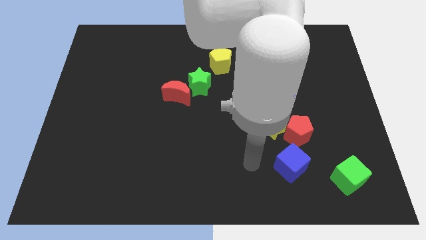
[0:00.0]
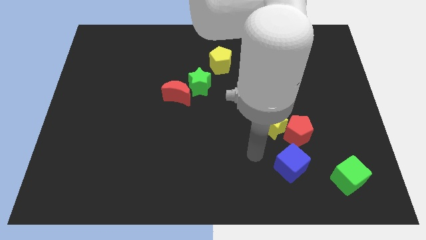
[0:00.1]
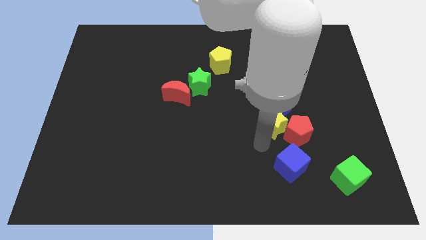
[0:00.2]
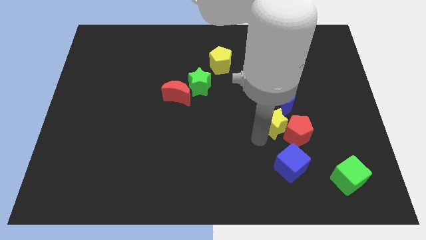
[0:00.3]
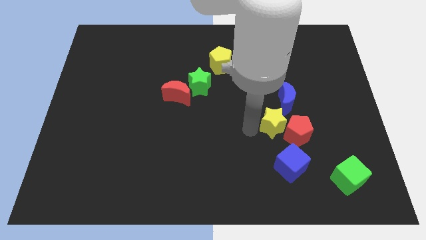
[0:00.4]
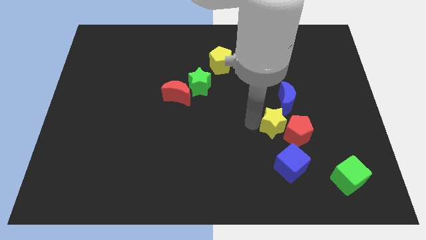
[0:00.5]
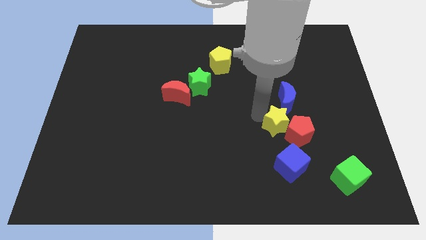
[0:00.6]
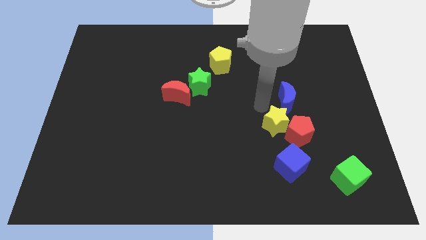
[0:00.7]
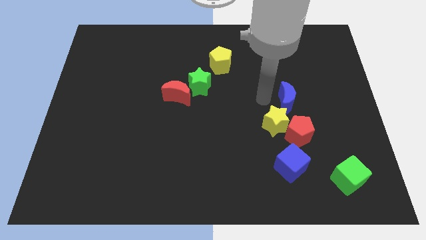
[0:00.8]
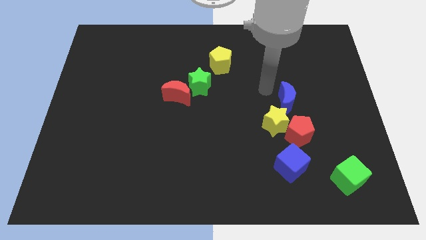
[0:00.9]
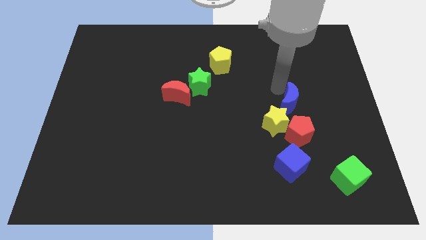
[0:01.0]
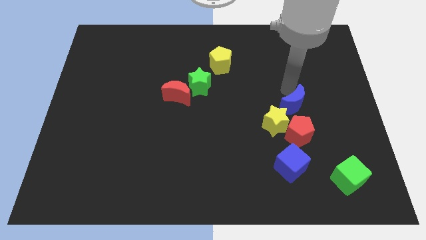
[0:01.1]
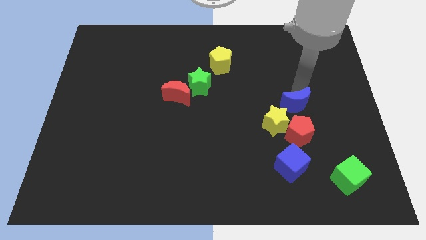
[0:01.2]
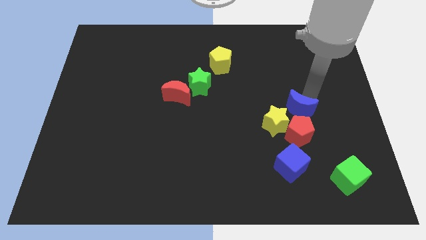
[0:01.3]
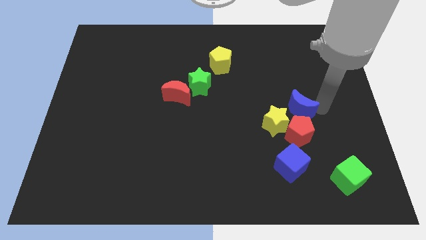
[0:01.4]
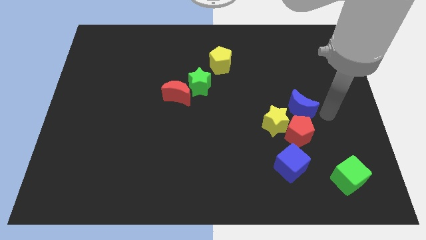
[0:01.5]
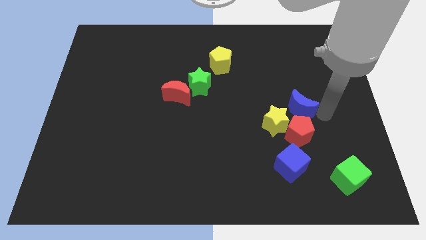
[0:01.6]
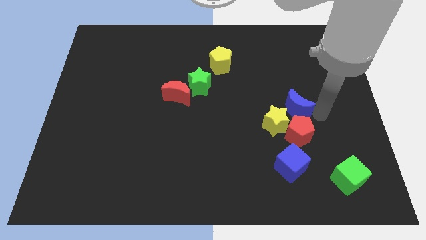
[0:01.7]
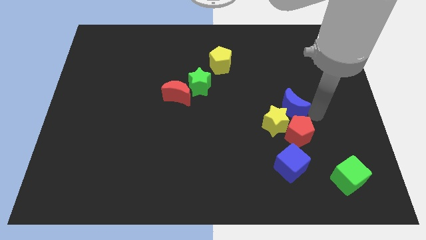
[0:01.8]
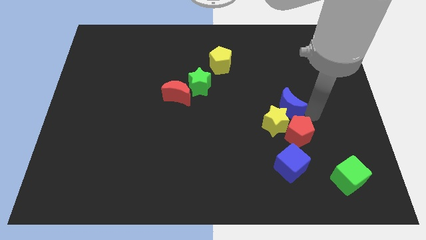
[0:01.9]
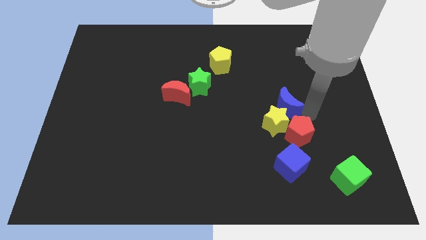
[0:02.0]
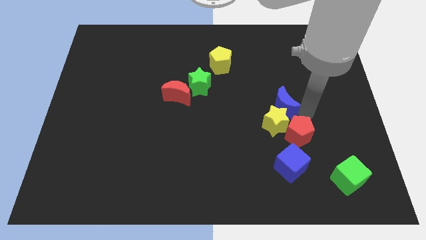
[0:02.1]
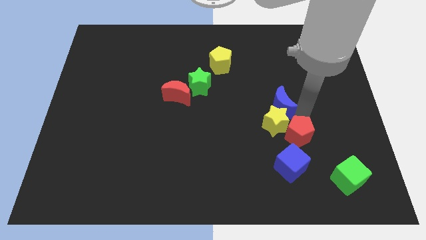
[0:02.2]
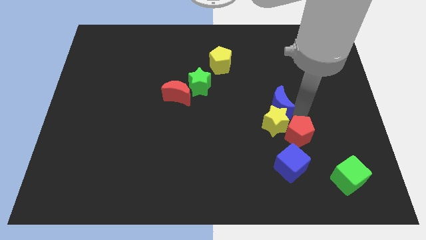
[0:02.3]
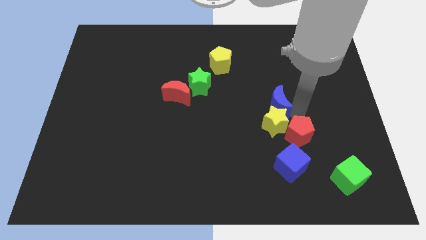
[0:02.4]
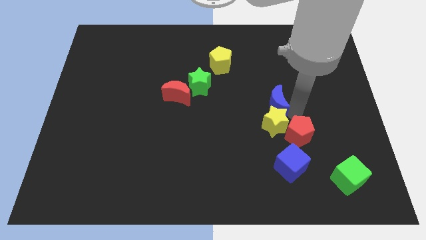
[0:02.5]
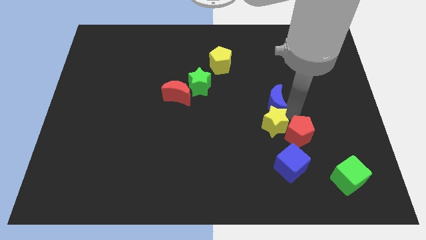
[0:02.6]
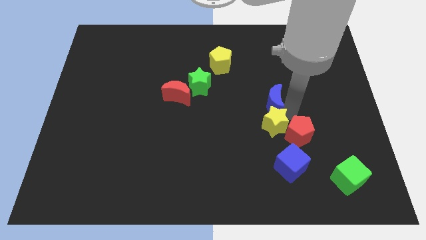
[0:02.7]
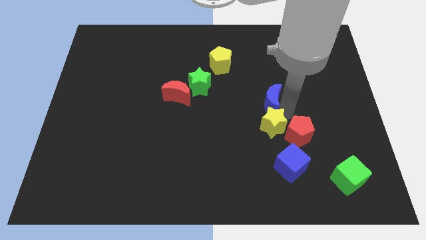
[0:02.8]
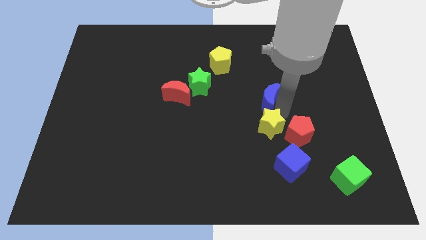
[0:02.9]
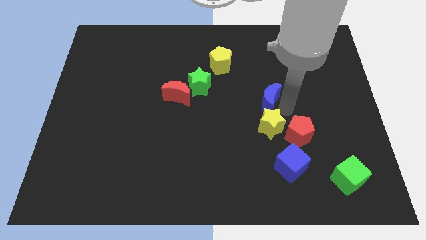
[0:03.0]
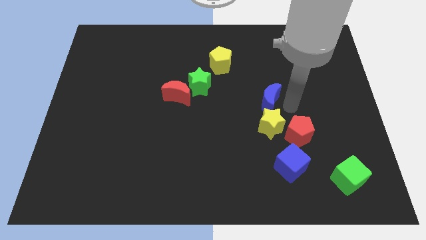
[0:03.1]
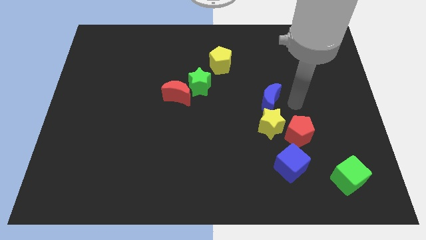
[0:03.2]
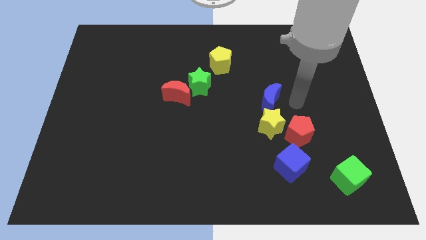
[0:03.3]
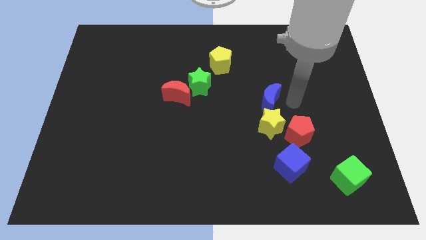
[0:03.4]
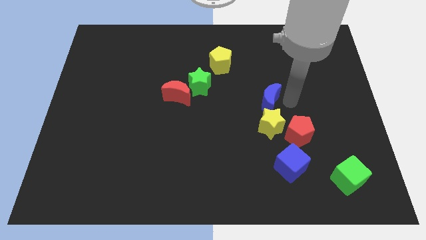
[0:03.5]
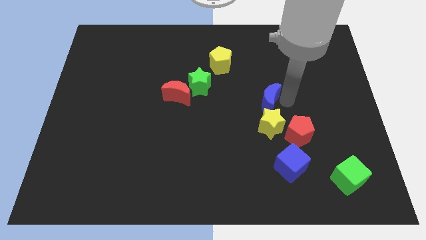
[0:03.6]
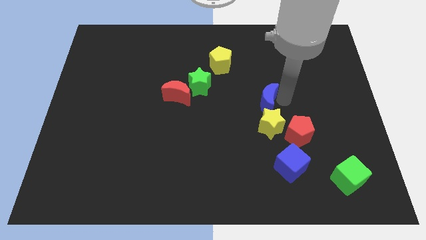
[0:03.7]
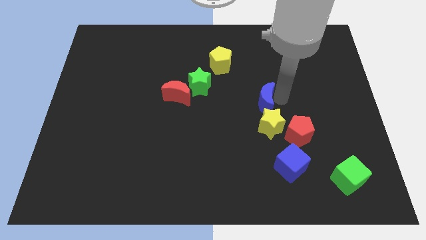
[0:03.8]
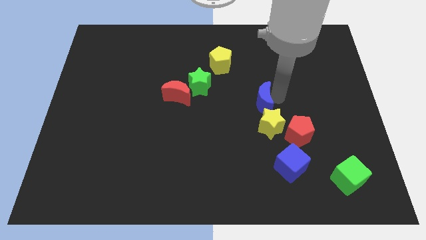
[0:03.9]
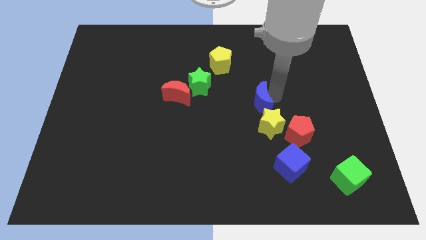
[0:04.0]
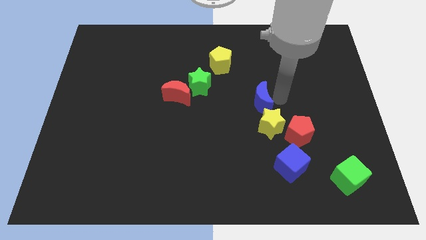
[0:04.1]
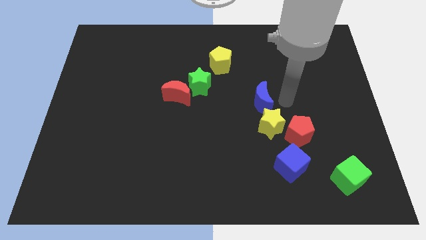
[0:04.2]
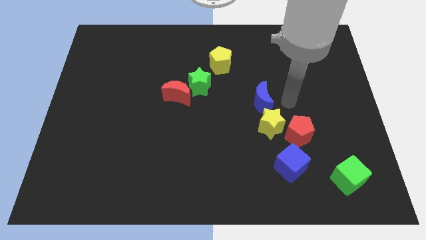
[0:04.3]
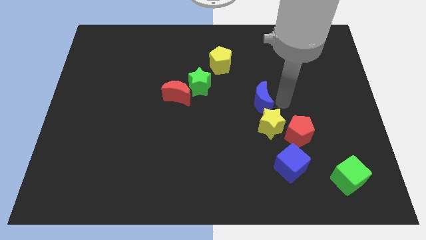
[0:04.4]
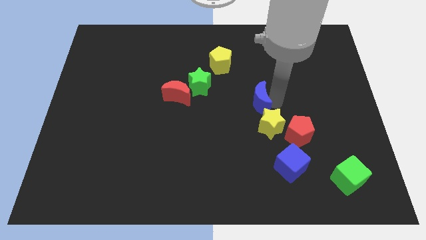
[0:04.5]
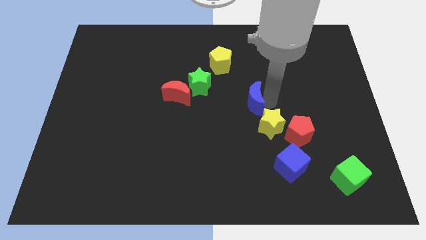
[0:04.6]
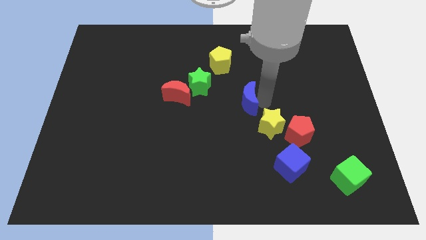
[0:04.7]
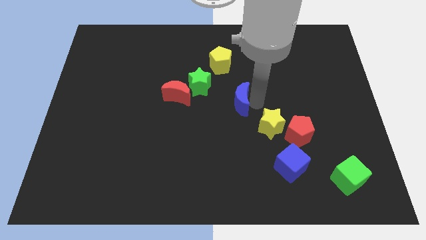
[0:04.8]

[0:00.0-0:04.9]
push the blue moon below the yellow pentagon

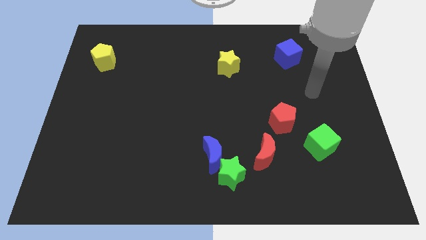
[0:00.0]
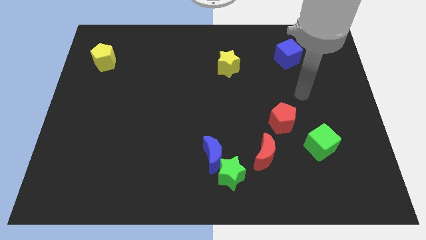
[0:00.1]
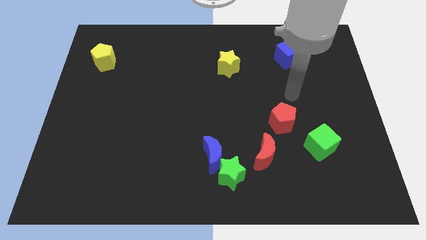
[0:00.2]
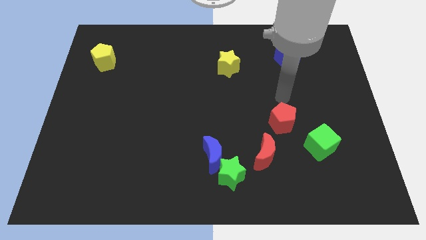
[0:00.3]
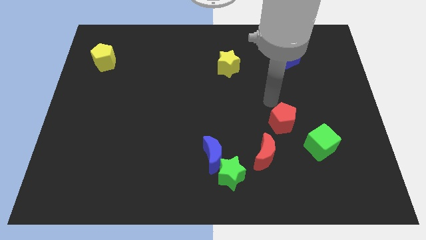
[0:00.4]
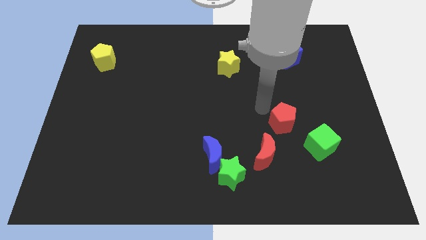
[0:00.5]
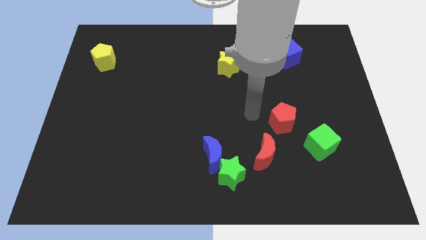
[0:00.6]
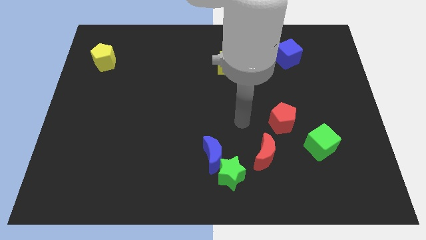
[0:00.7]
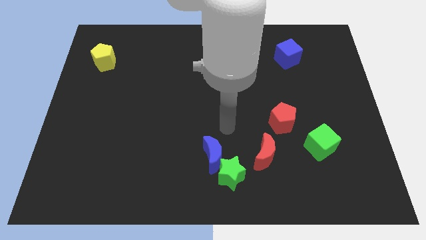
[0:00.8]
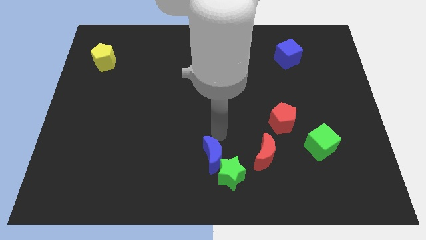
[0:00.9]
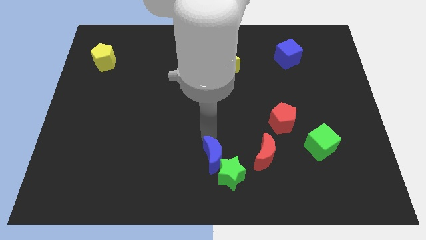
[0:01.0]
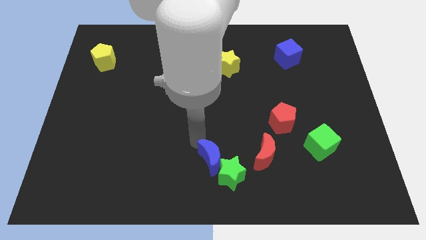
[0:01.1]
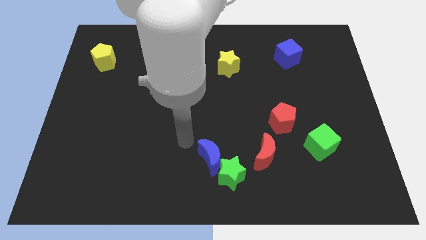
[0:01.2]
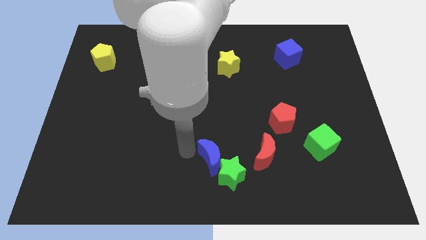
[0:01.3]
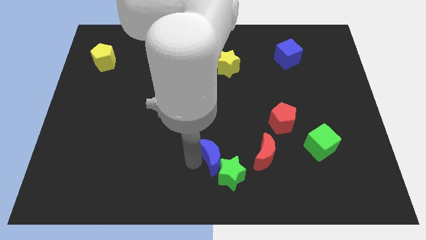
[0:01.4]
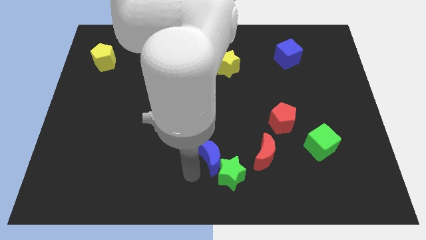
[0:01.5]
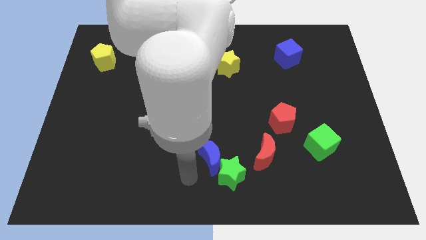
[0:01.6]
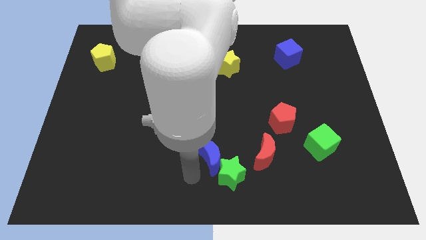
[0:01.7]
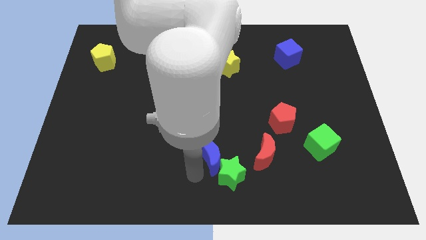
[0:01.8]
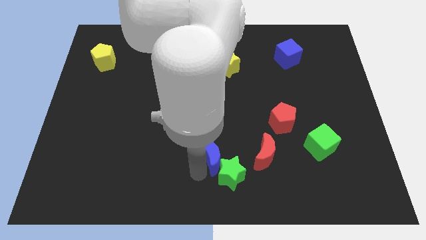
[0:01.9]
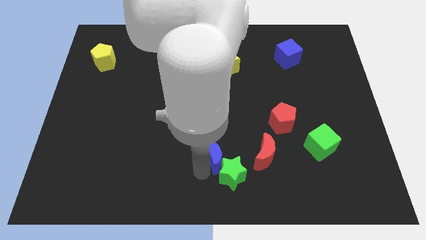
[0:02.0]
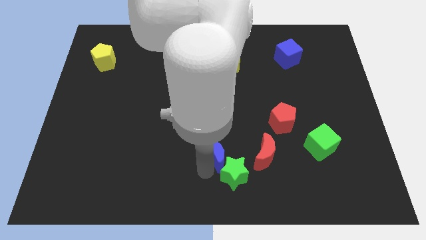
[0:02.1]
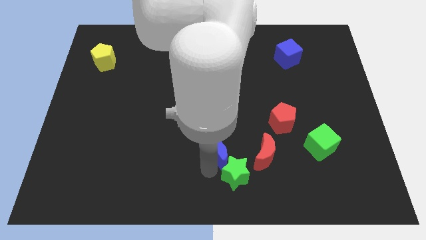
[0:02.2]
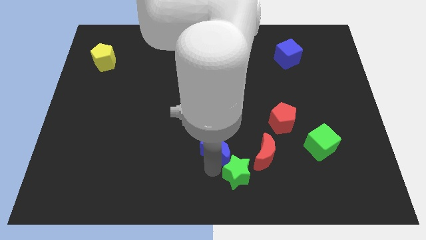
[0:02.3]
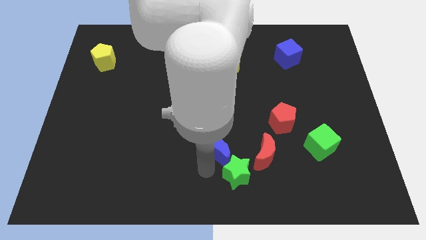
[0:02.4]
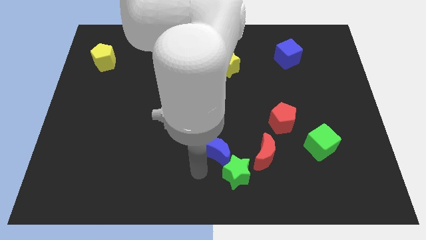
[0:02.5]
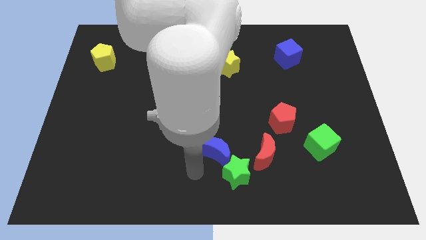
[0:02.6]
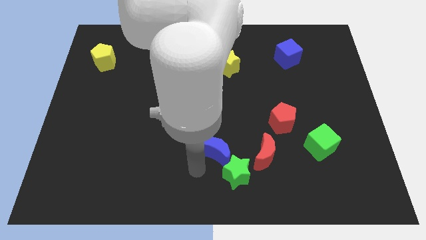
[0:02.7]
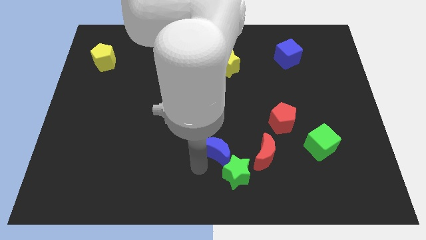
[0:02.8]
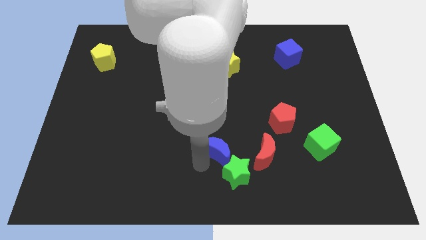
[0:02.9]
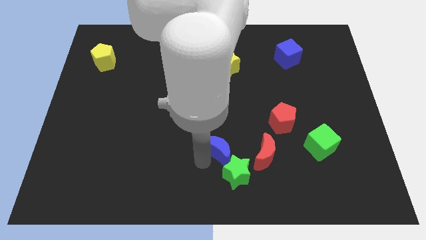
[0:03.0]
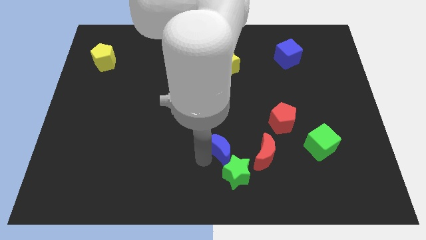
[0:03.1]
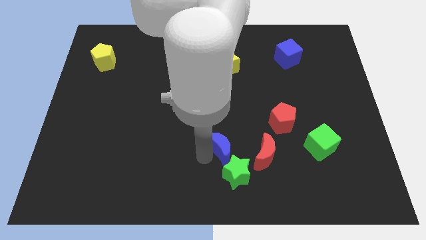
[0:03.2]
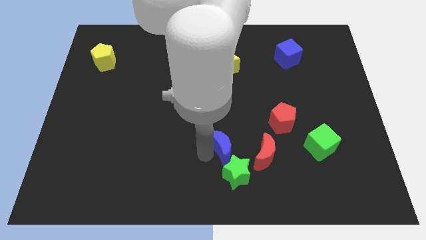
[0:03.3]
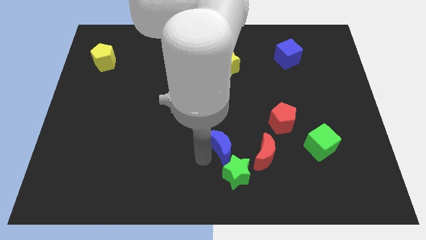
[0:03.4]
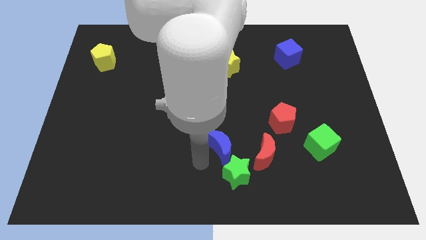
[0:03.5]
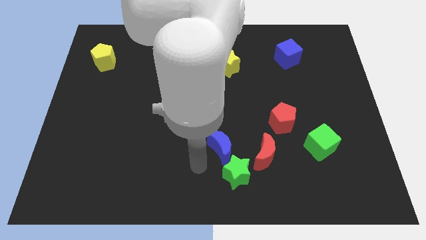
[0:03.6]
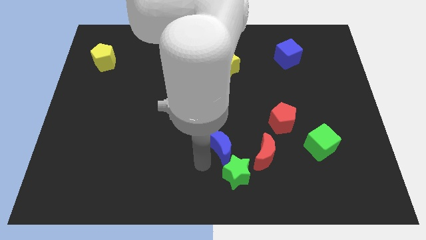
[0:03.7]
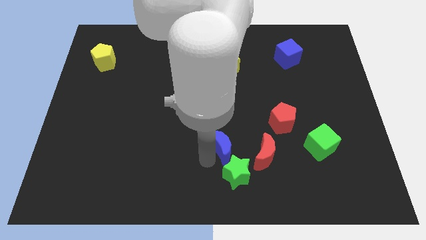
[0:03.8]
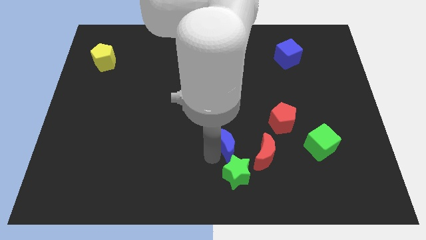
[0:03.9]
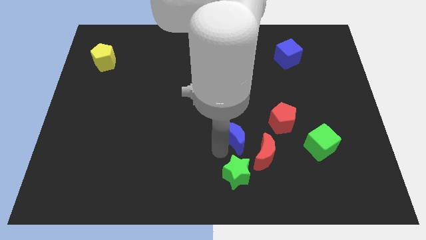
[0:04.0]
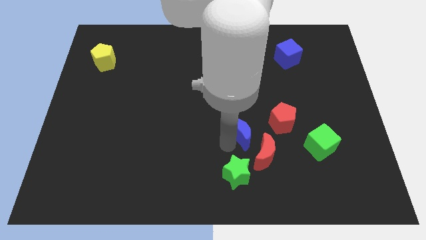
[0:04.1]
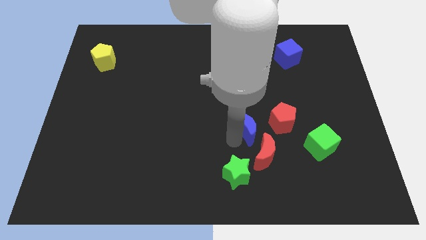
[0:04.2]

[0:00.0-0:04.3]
move the blue moon to the top side of the red moon
